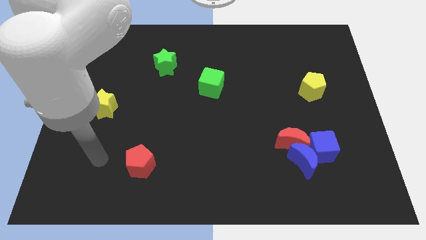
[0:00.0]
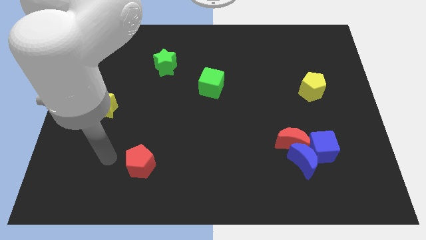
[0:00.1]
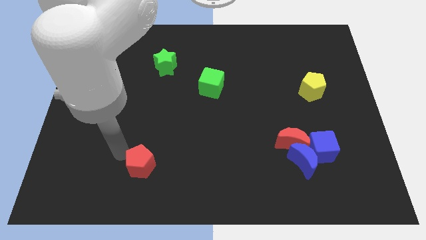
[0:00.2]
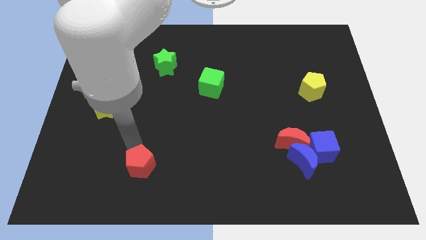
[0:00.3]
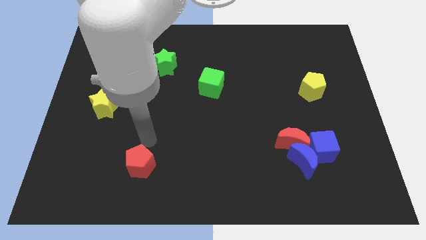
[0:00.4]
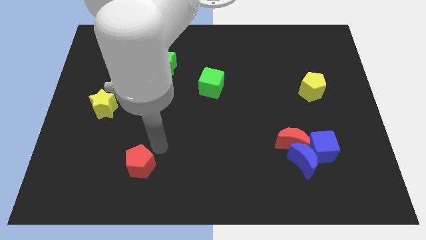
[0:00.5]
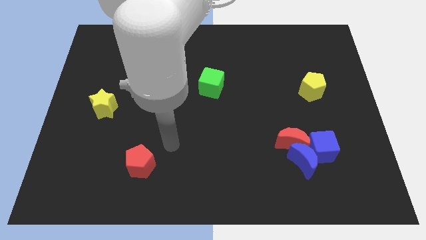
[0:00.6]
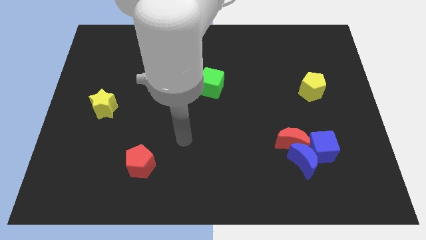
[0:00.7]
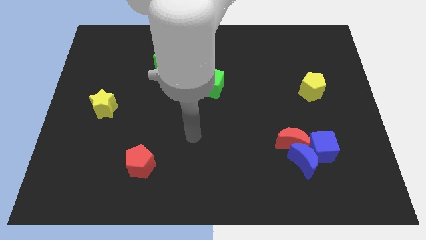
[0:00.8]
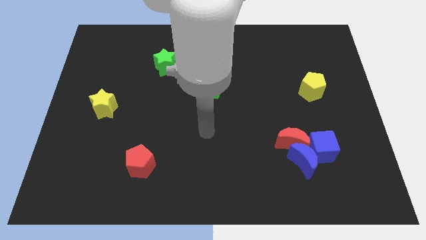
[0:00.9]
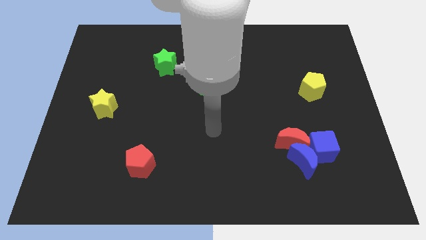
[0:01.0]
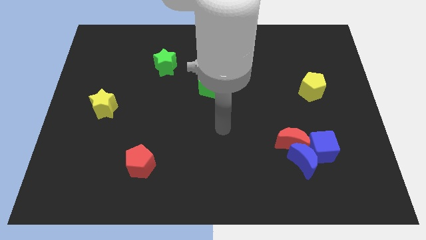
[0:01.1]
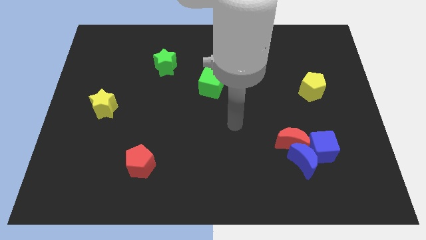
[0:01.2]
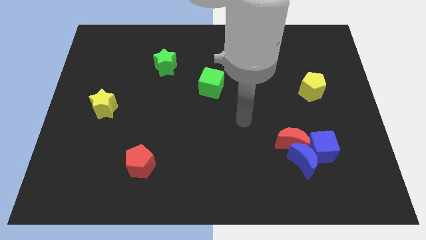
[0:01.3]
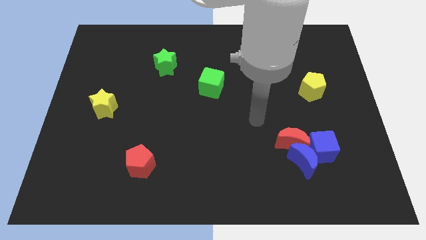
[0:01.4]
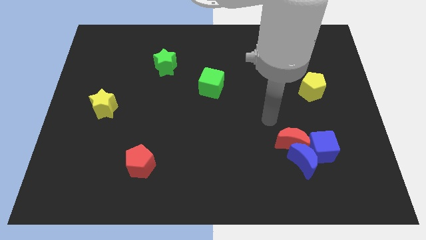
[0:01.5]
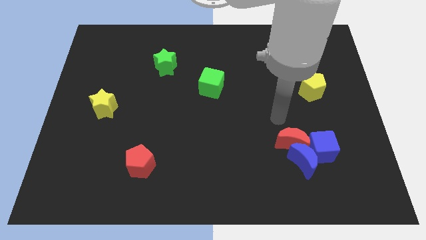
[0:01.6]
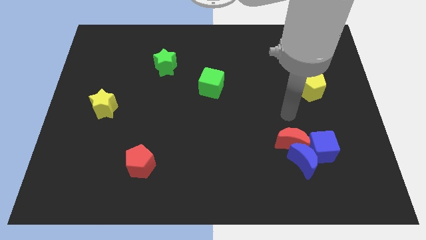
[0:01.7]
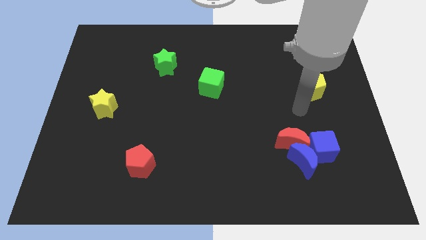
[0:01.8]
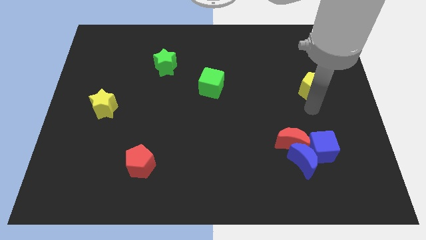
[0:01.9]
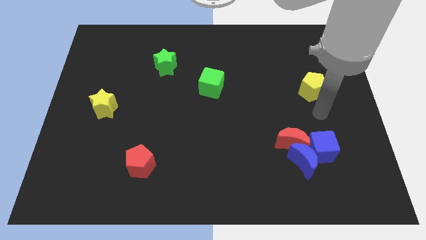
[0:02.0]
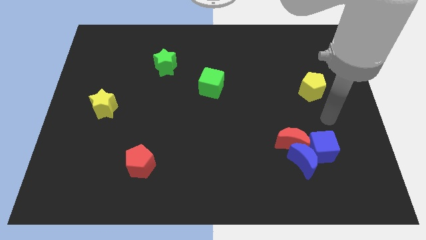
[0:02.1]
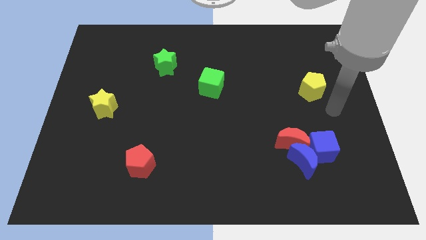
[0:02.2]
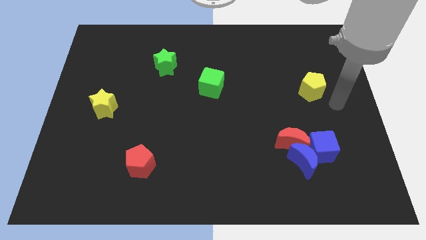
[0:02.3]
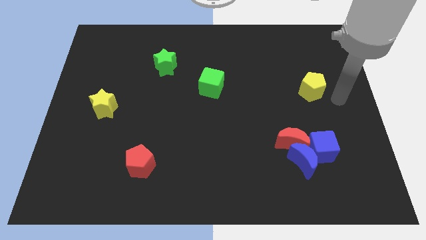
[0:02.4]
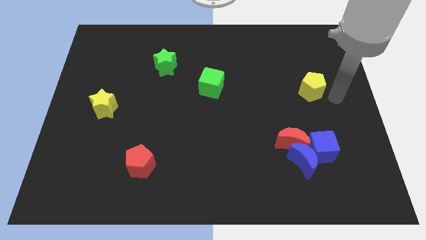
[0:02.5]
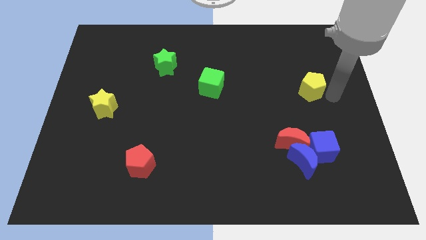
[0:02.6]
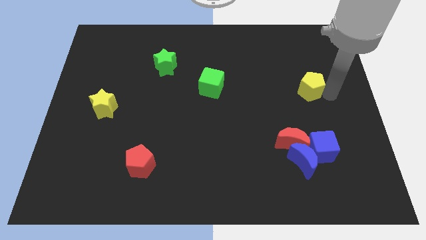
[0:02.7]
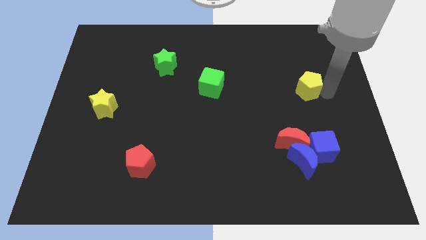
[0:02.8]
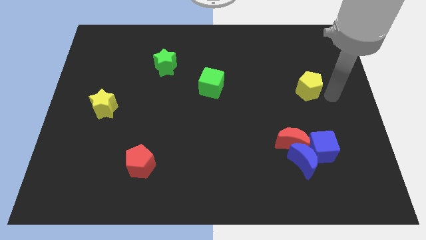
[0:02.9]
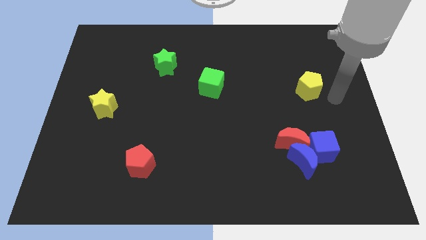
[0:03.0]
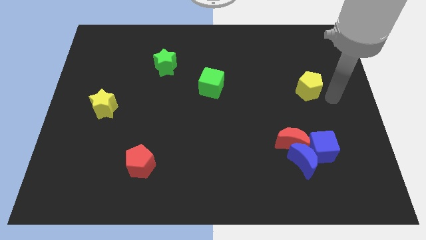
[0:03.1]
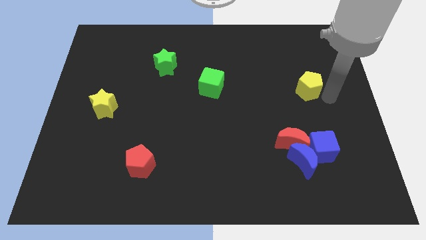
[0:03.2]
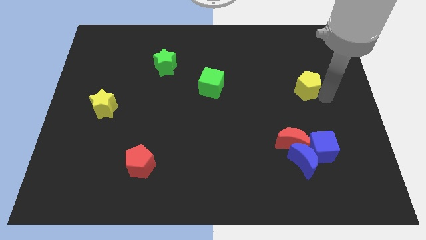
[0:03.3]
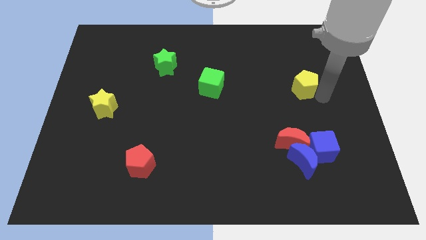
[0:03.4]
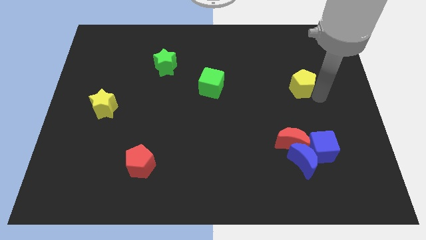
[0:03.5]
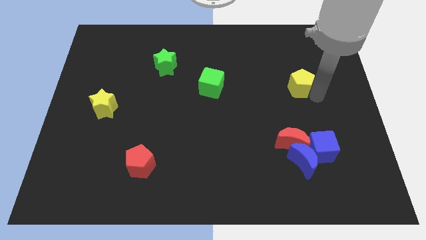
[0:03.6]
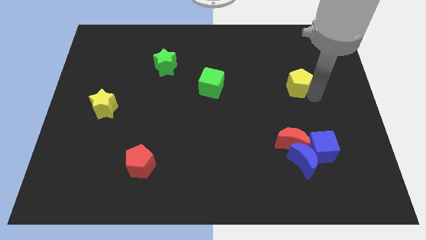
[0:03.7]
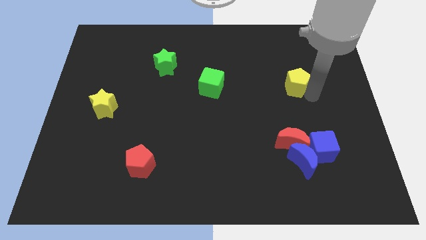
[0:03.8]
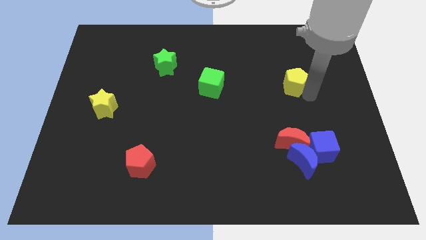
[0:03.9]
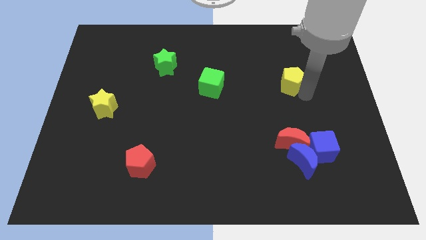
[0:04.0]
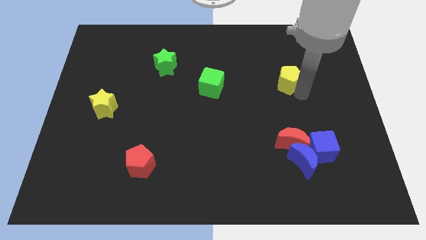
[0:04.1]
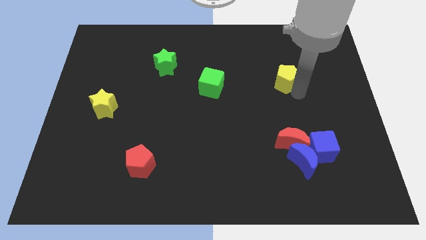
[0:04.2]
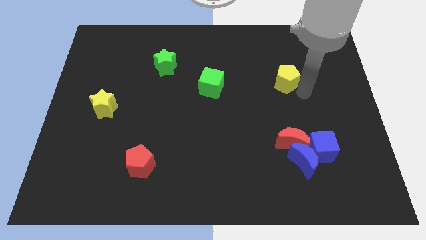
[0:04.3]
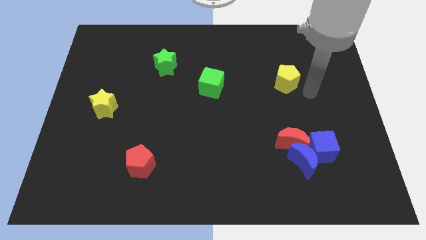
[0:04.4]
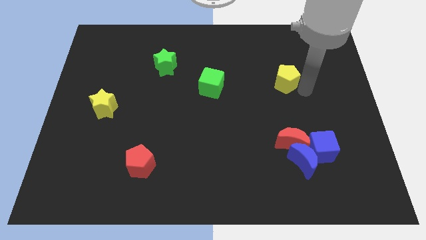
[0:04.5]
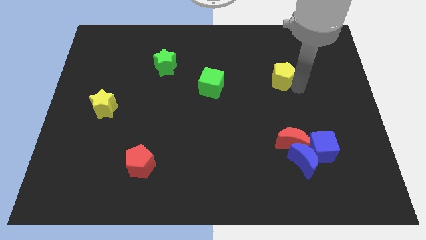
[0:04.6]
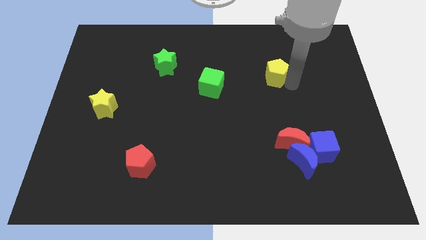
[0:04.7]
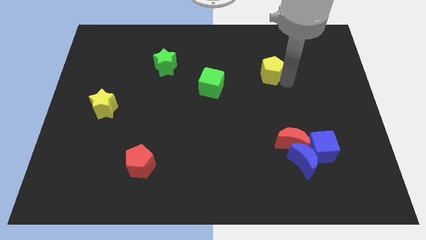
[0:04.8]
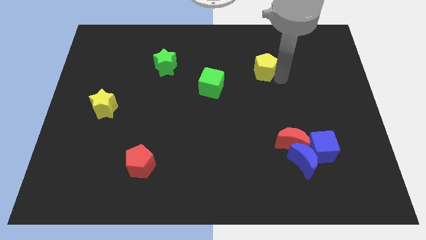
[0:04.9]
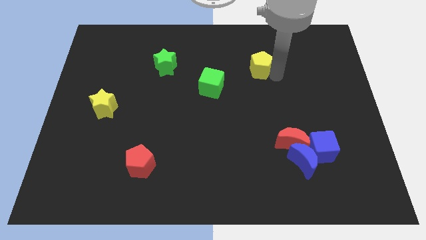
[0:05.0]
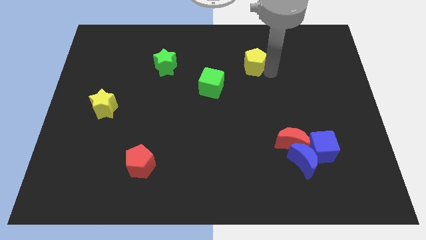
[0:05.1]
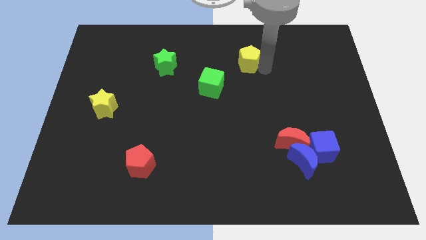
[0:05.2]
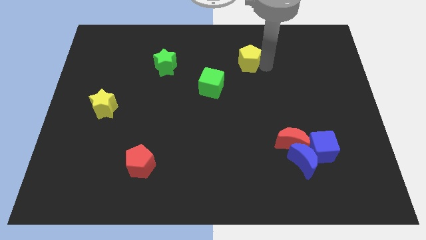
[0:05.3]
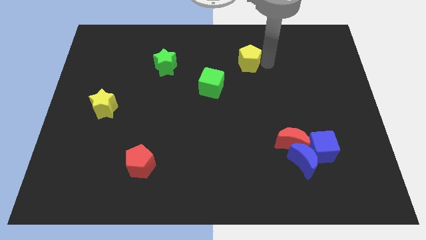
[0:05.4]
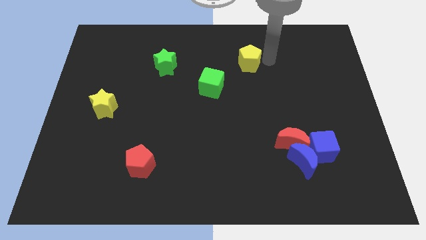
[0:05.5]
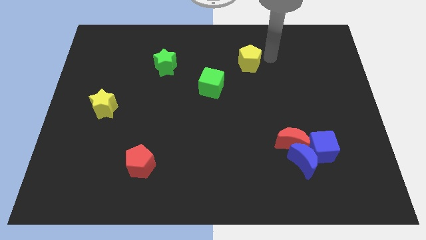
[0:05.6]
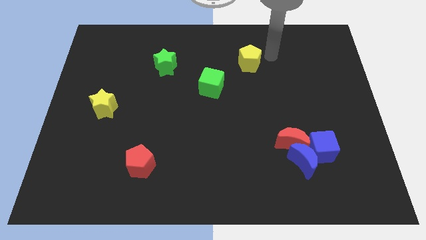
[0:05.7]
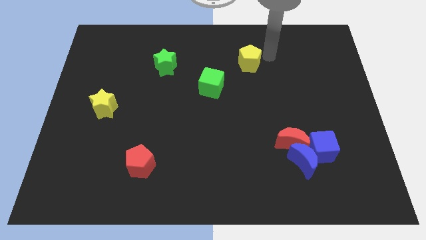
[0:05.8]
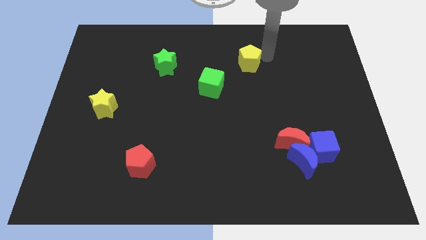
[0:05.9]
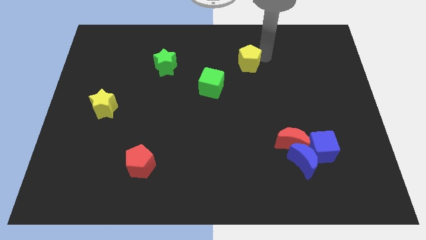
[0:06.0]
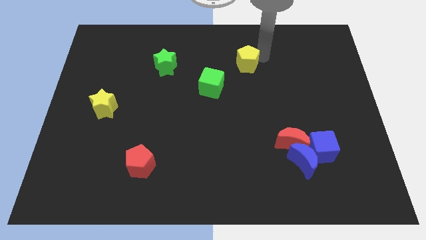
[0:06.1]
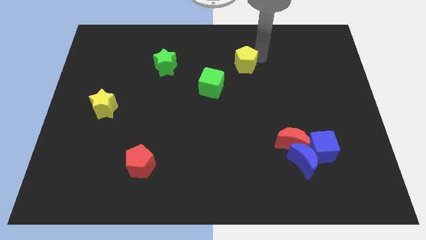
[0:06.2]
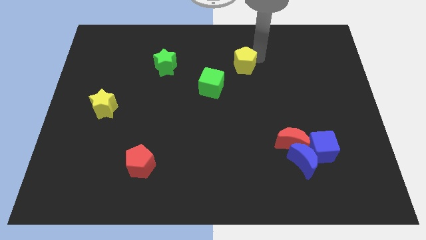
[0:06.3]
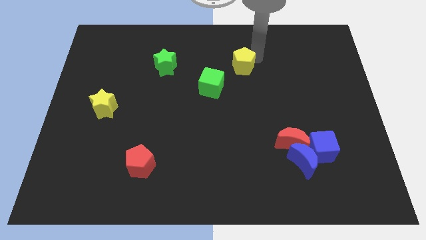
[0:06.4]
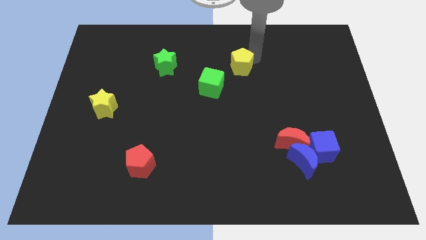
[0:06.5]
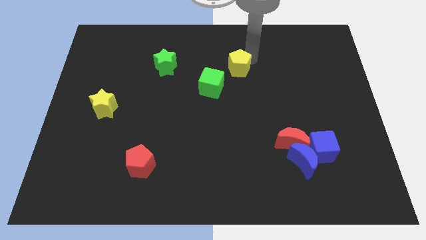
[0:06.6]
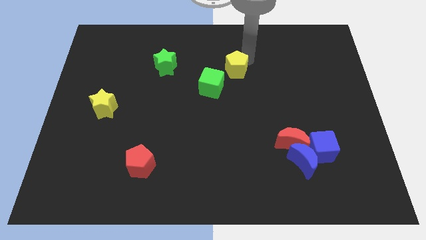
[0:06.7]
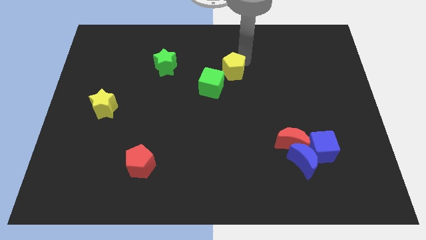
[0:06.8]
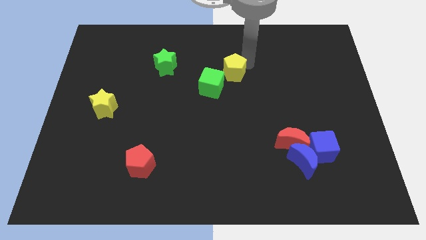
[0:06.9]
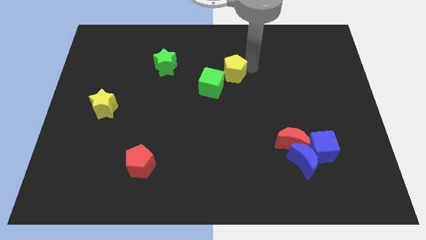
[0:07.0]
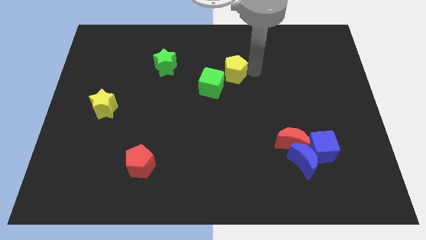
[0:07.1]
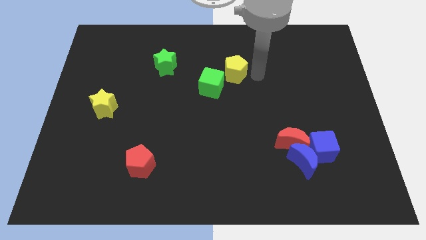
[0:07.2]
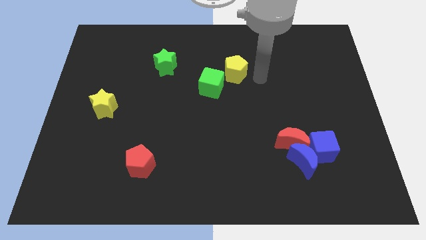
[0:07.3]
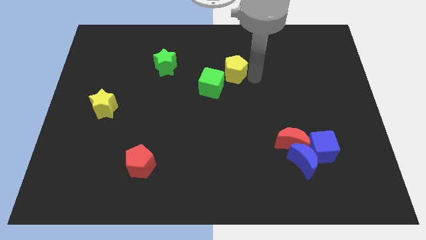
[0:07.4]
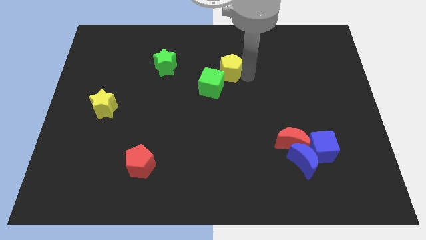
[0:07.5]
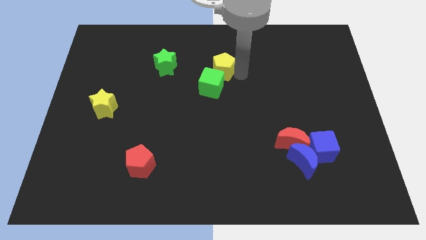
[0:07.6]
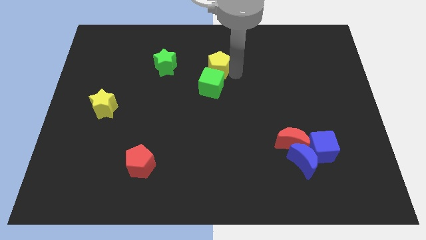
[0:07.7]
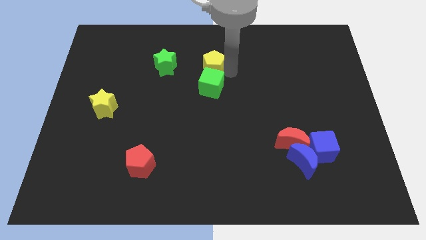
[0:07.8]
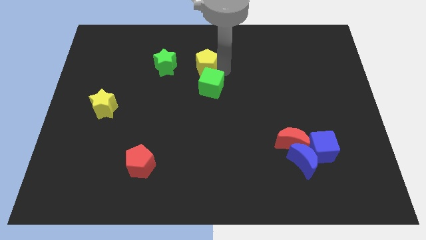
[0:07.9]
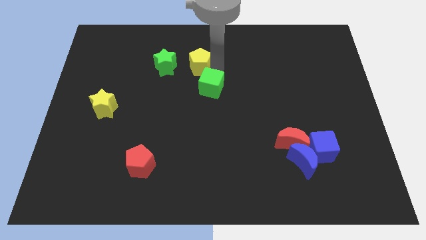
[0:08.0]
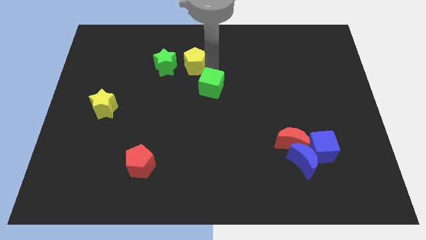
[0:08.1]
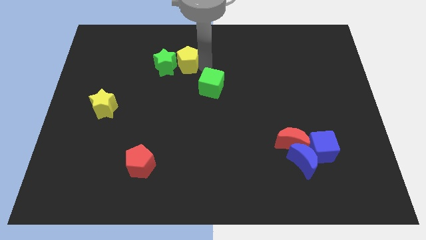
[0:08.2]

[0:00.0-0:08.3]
put the yellow pentagon to the green star

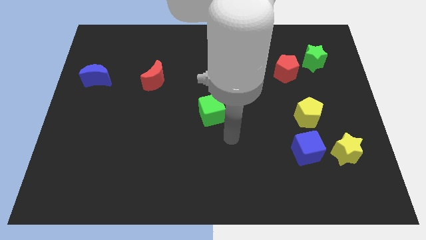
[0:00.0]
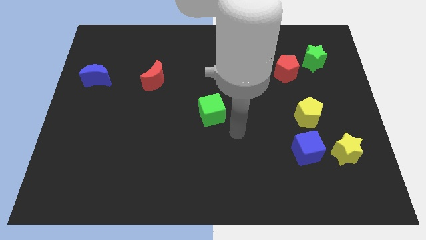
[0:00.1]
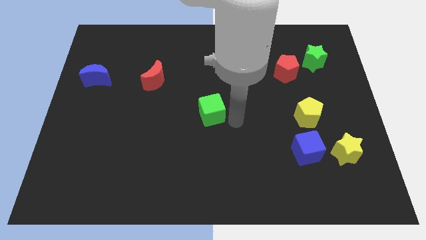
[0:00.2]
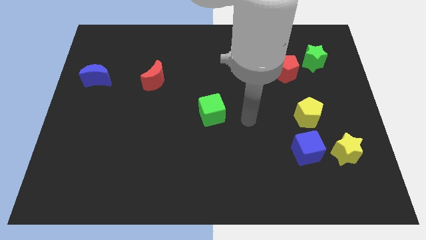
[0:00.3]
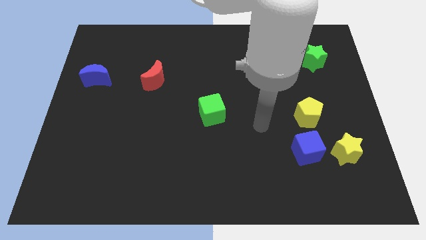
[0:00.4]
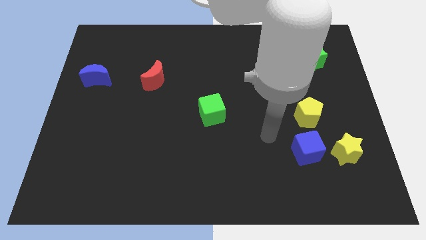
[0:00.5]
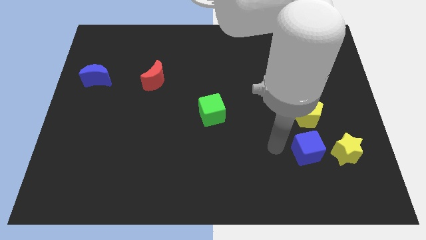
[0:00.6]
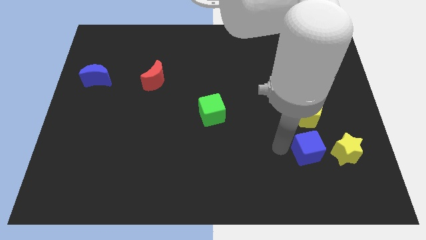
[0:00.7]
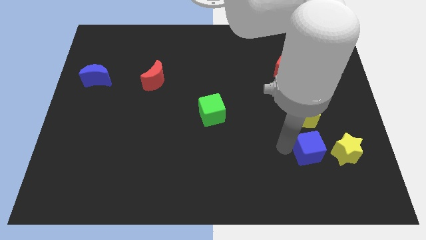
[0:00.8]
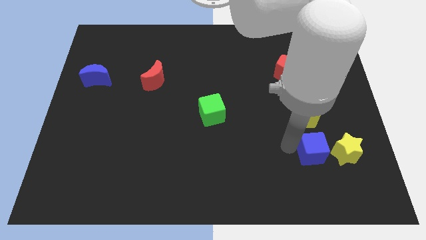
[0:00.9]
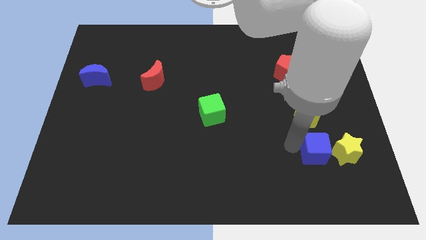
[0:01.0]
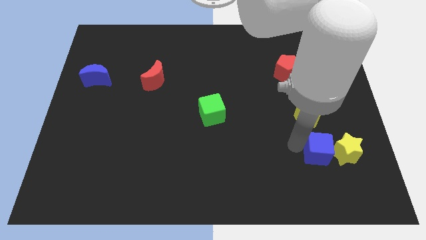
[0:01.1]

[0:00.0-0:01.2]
push the blue cube towards the yellow star
